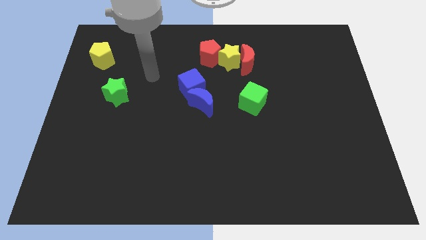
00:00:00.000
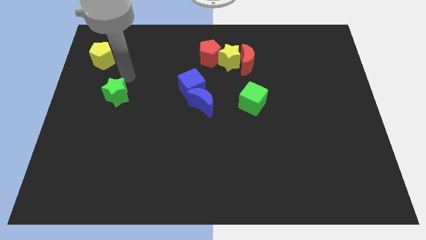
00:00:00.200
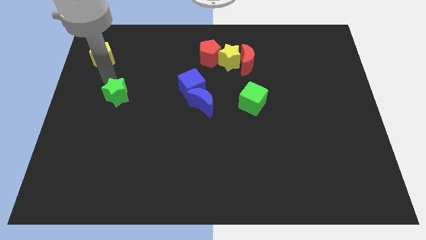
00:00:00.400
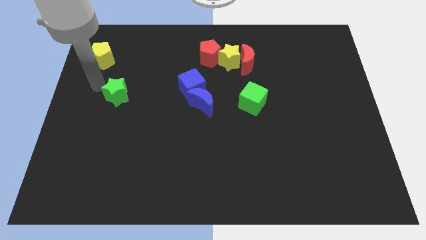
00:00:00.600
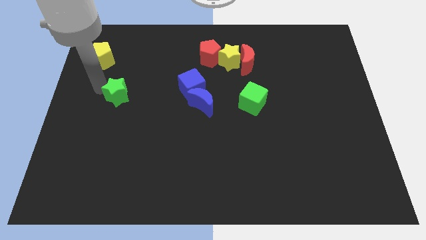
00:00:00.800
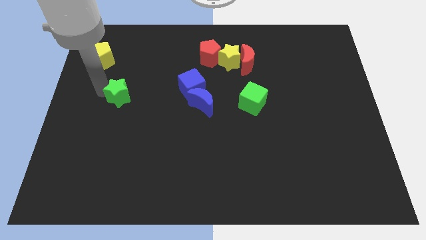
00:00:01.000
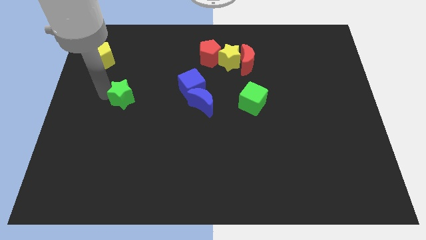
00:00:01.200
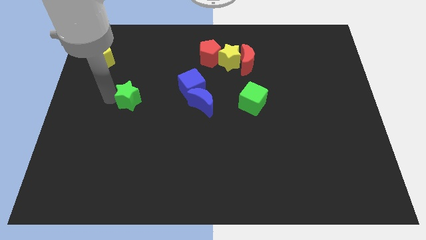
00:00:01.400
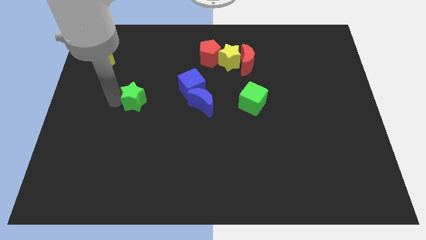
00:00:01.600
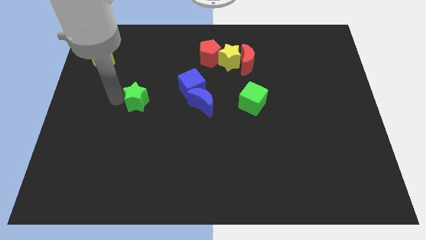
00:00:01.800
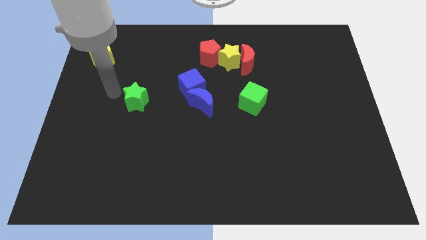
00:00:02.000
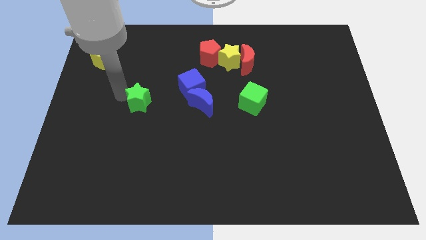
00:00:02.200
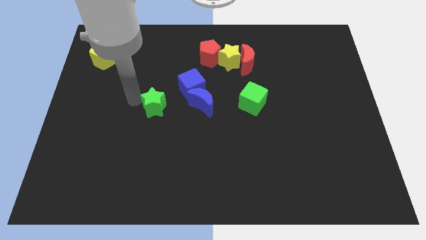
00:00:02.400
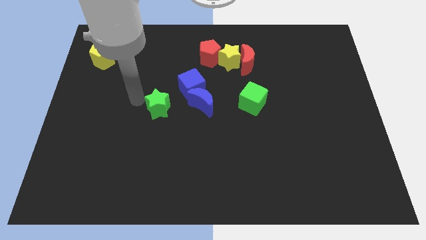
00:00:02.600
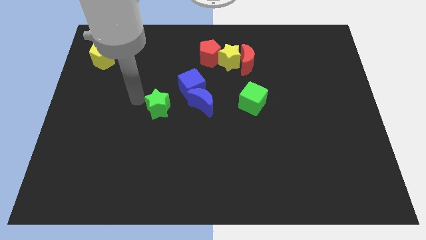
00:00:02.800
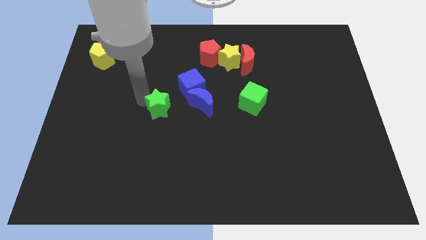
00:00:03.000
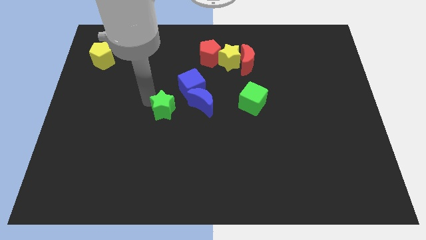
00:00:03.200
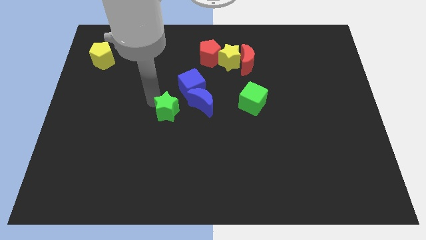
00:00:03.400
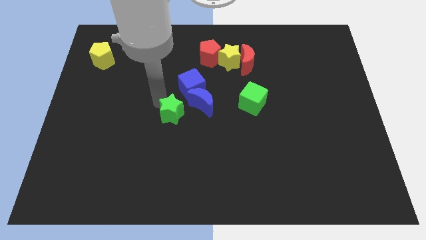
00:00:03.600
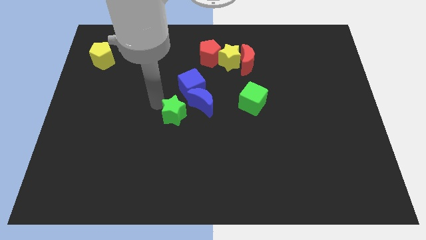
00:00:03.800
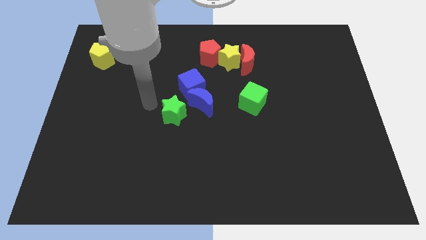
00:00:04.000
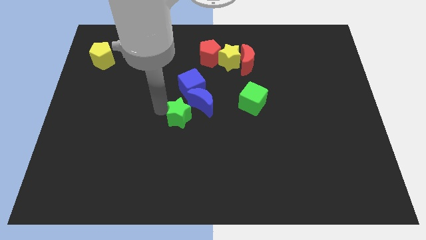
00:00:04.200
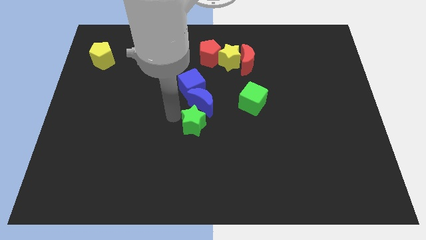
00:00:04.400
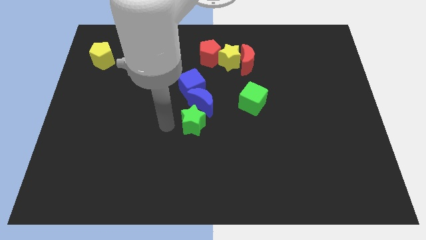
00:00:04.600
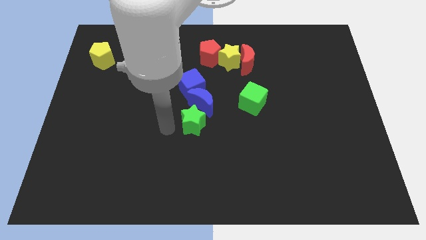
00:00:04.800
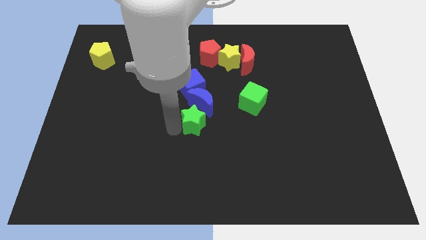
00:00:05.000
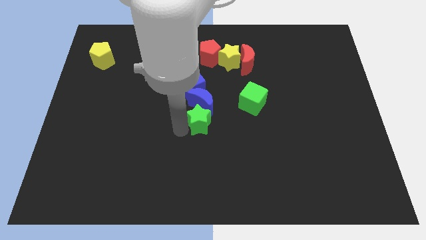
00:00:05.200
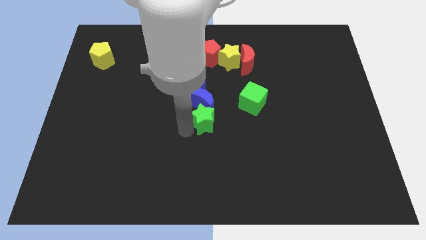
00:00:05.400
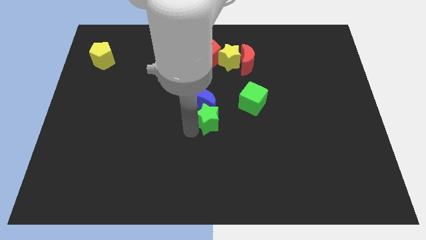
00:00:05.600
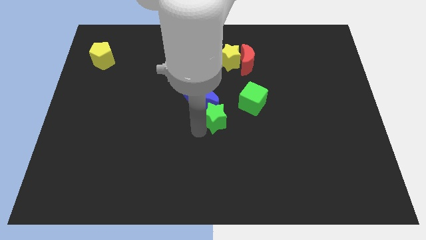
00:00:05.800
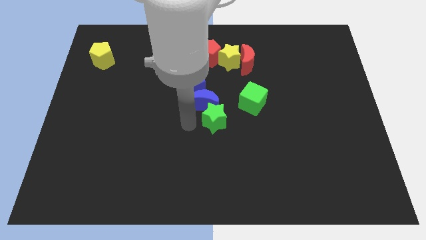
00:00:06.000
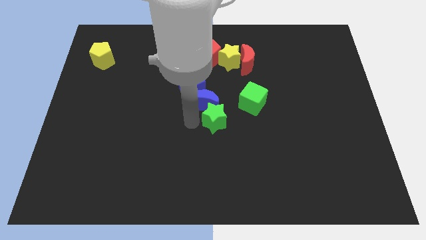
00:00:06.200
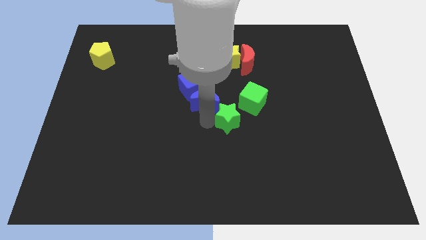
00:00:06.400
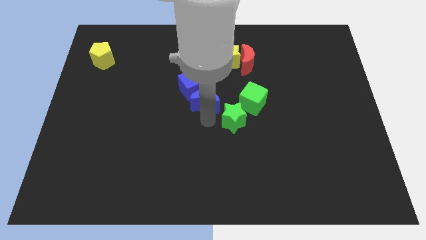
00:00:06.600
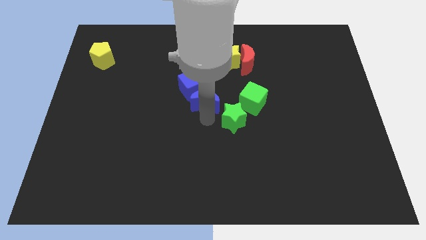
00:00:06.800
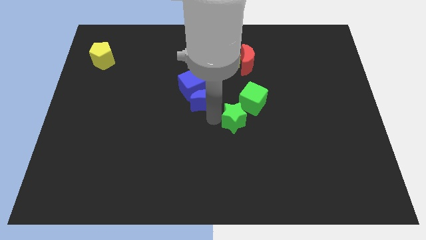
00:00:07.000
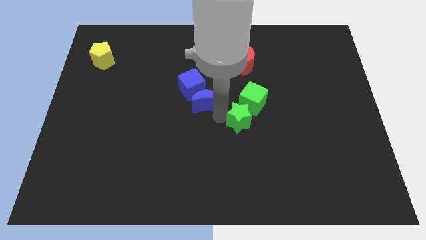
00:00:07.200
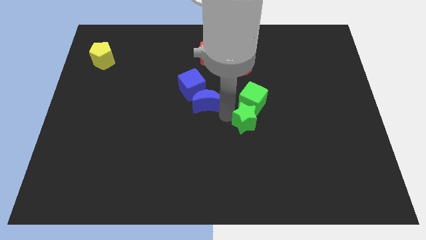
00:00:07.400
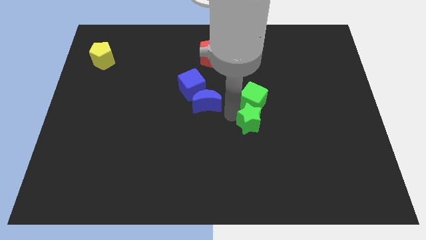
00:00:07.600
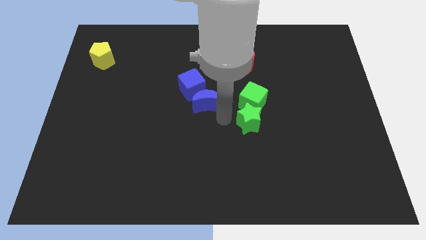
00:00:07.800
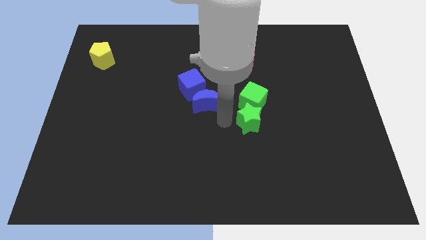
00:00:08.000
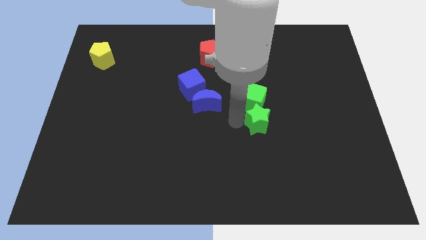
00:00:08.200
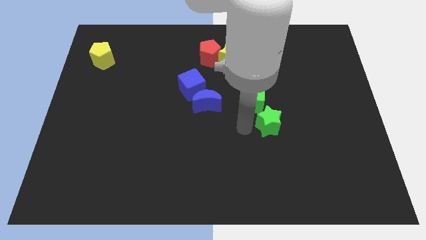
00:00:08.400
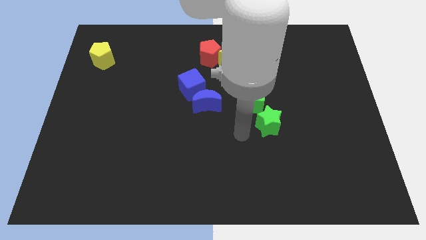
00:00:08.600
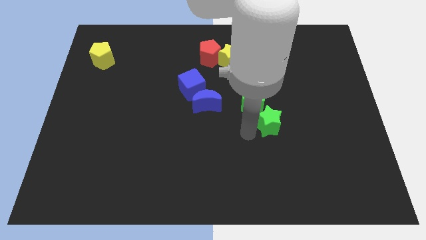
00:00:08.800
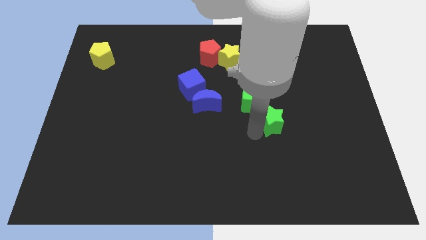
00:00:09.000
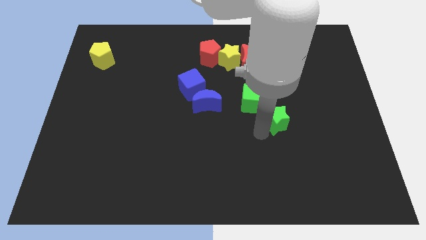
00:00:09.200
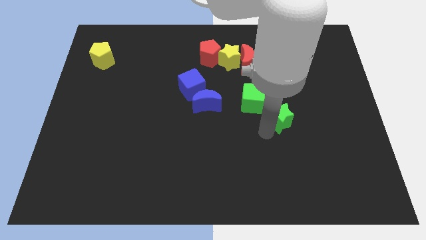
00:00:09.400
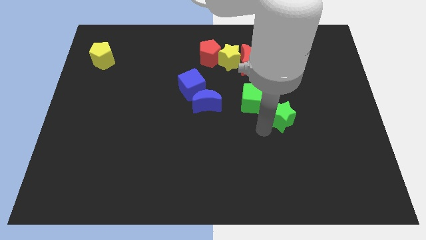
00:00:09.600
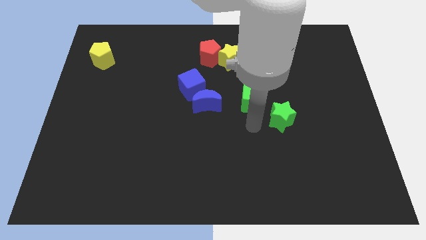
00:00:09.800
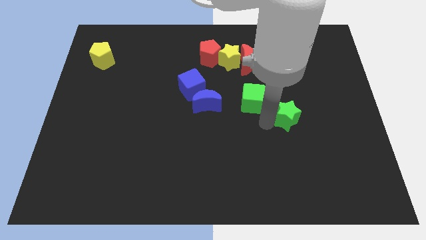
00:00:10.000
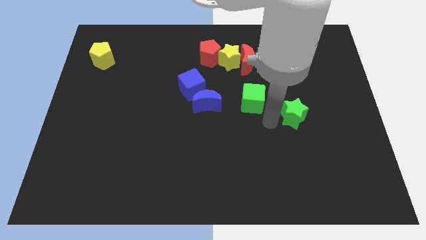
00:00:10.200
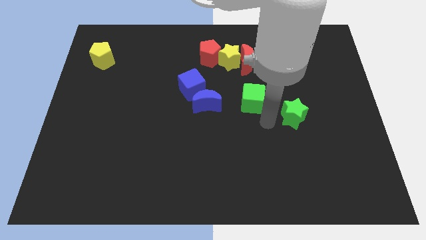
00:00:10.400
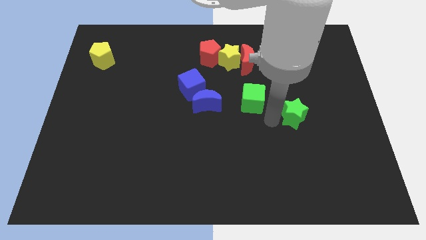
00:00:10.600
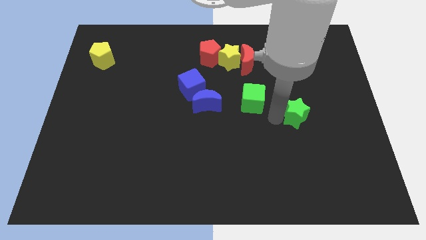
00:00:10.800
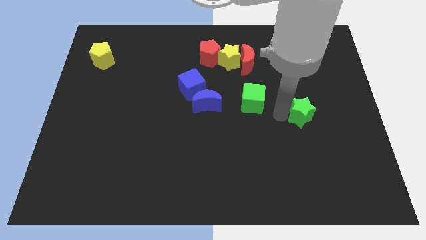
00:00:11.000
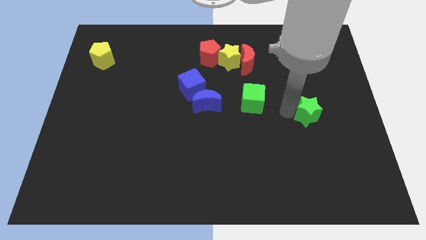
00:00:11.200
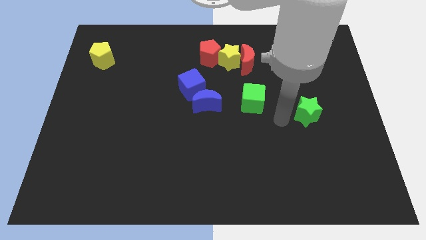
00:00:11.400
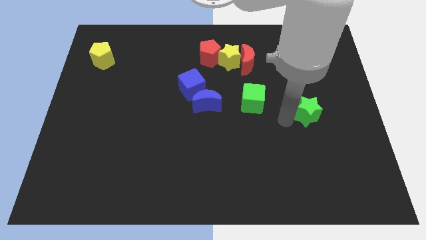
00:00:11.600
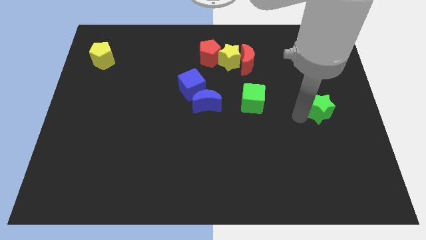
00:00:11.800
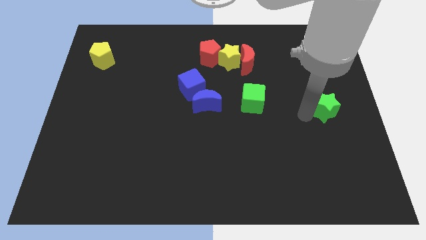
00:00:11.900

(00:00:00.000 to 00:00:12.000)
slide the green star to the right side

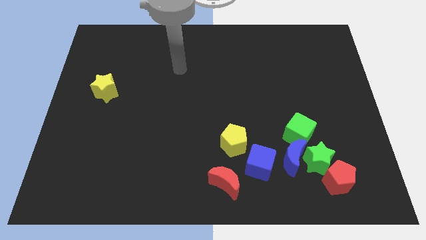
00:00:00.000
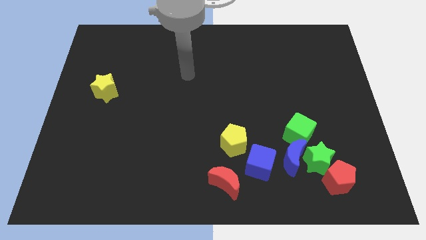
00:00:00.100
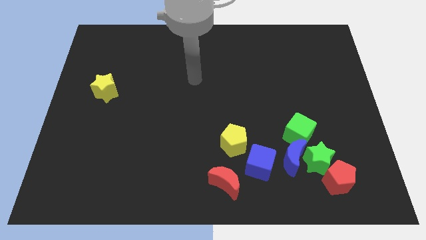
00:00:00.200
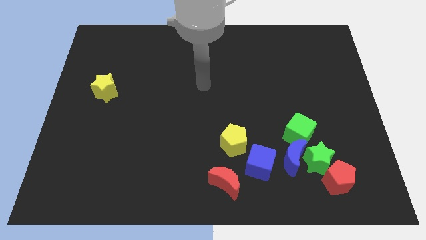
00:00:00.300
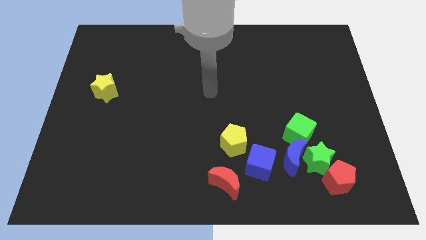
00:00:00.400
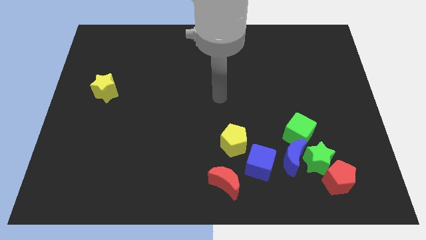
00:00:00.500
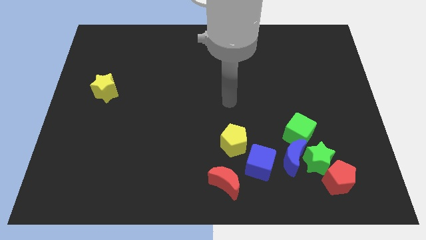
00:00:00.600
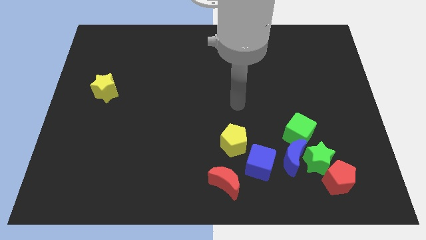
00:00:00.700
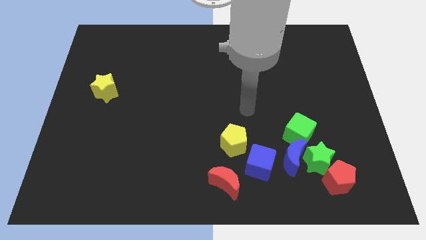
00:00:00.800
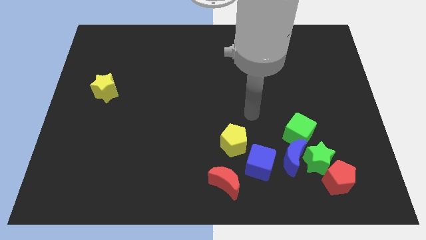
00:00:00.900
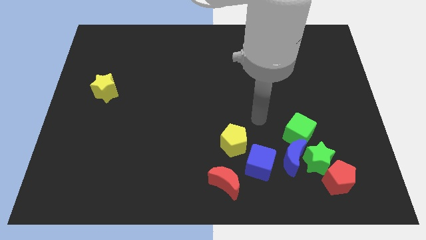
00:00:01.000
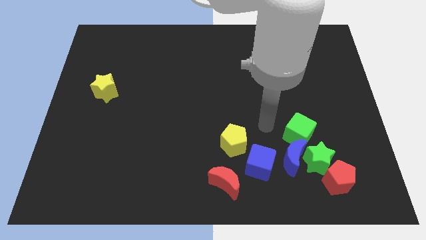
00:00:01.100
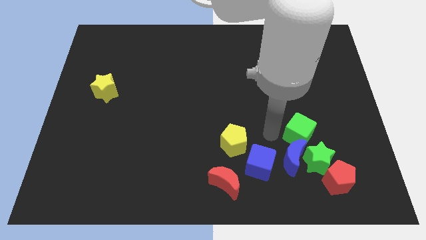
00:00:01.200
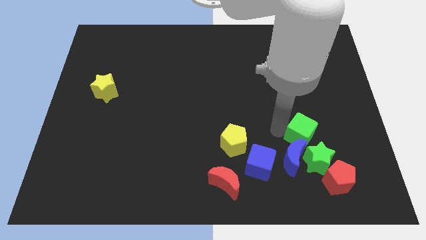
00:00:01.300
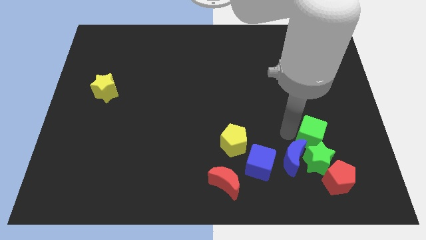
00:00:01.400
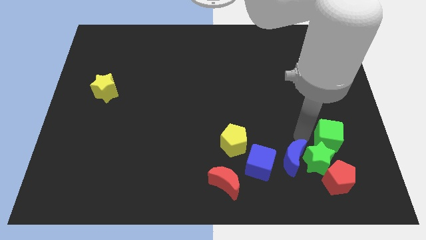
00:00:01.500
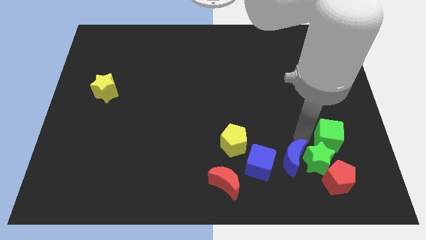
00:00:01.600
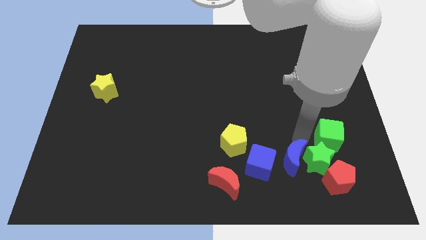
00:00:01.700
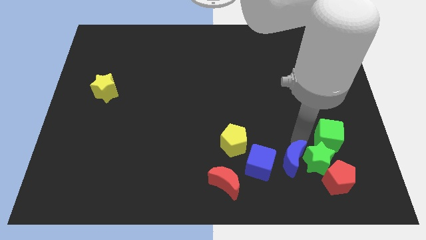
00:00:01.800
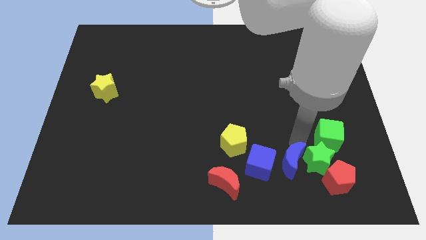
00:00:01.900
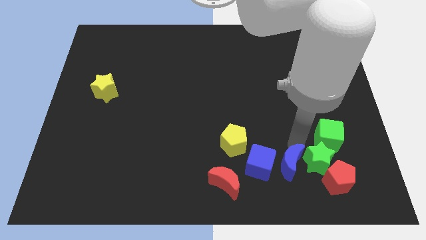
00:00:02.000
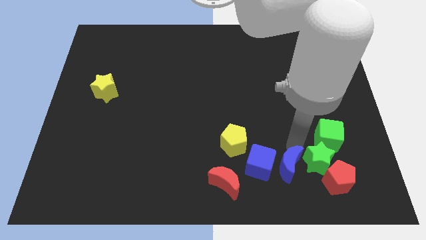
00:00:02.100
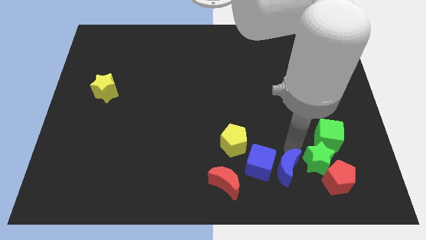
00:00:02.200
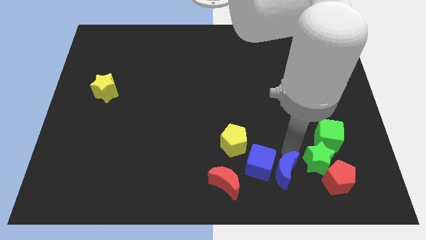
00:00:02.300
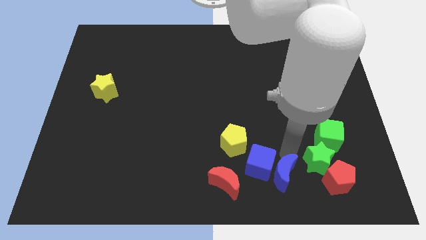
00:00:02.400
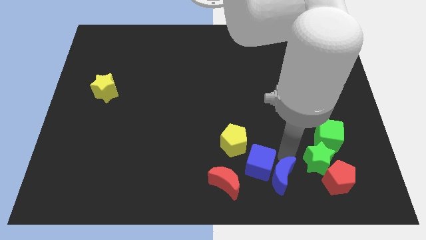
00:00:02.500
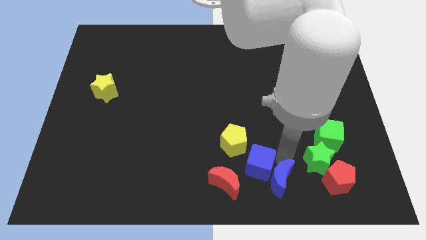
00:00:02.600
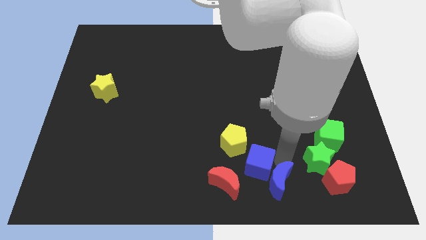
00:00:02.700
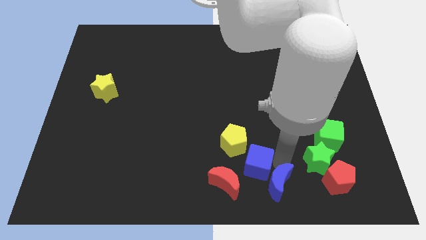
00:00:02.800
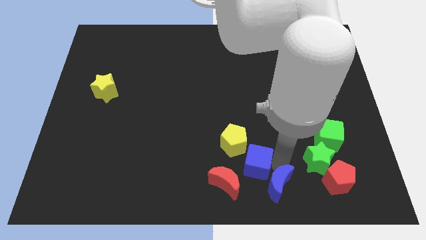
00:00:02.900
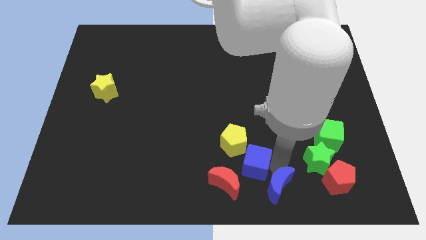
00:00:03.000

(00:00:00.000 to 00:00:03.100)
put the blue moon to the bottom side
